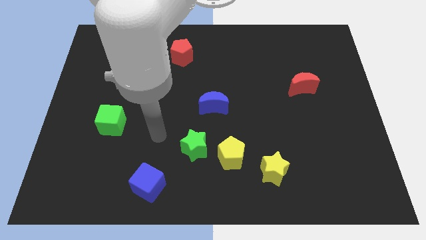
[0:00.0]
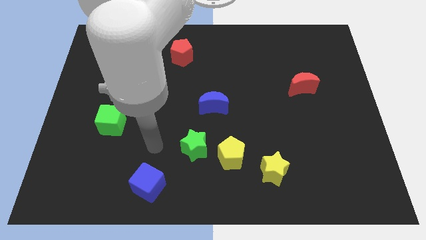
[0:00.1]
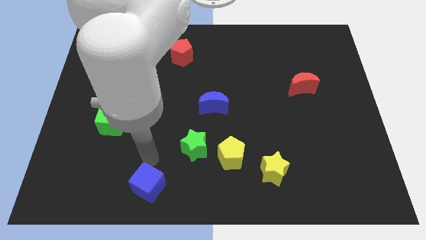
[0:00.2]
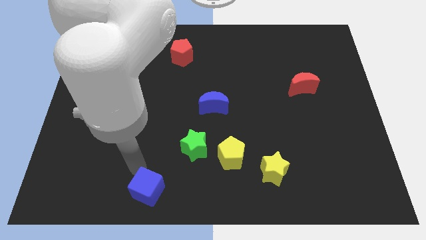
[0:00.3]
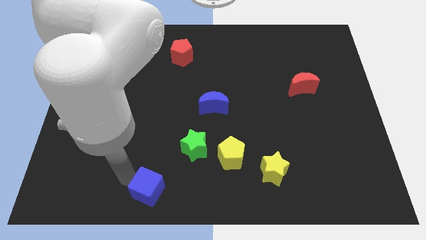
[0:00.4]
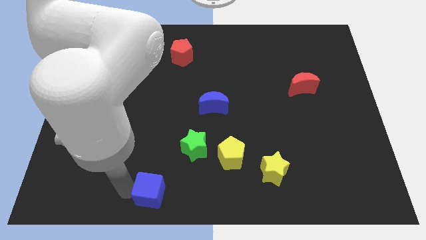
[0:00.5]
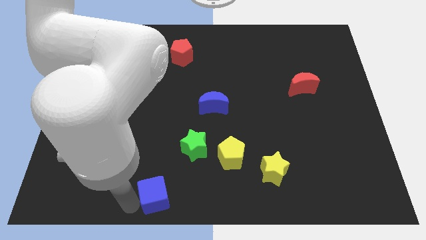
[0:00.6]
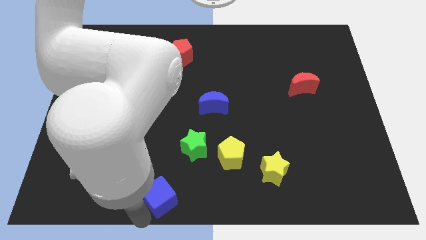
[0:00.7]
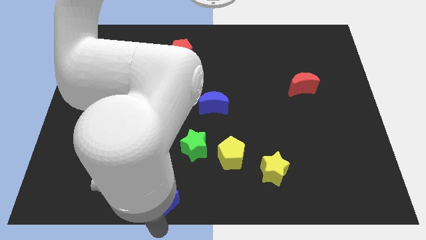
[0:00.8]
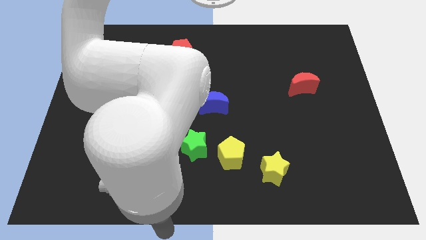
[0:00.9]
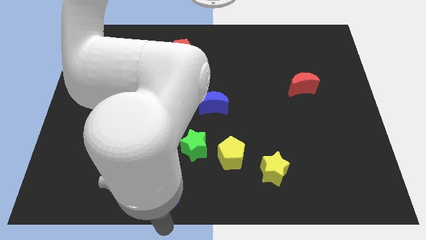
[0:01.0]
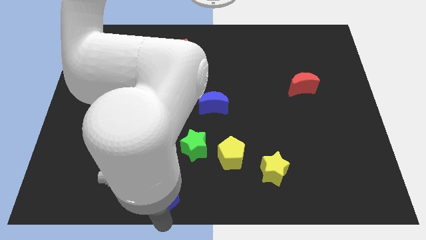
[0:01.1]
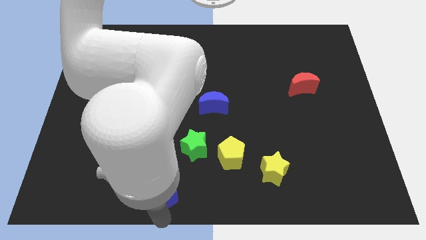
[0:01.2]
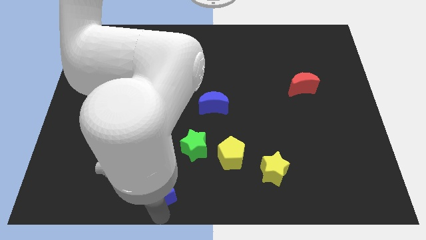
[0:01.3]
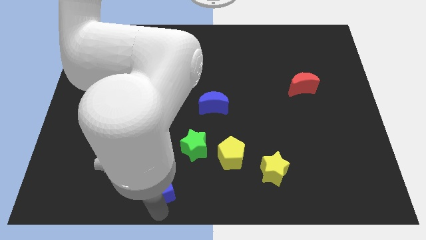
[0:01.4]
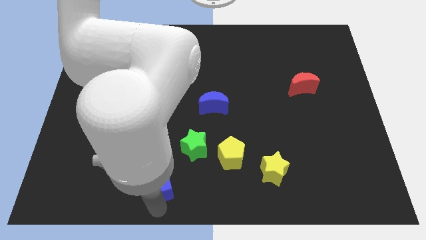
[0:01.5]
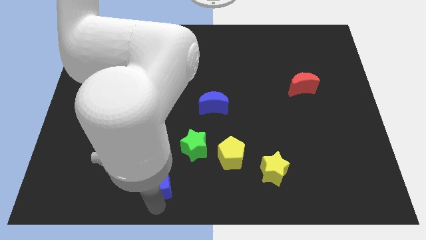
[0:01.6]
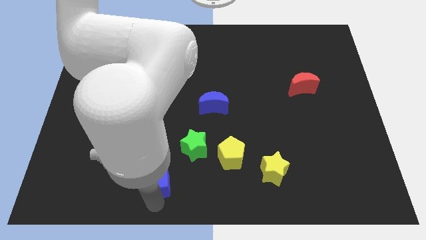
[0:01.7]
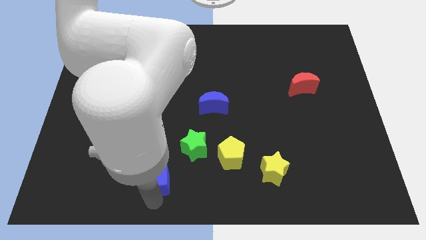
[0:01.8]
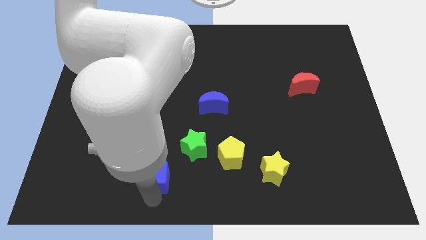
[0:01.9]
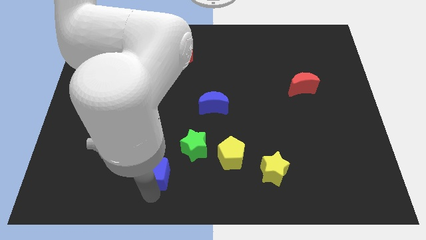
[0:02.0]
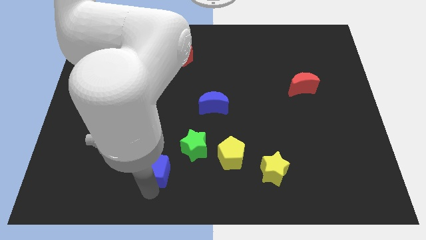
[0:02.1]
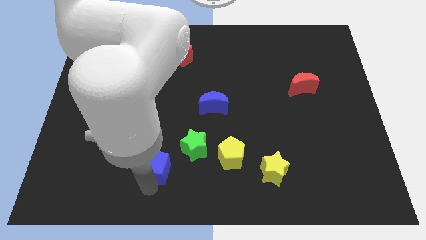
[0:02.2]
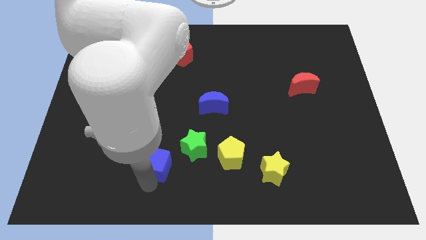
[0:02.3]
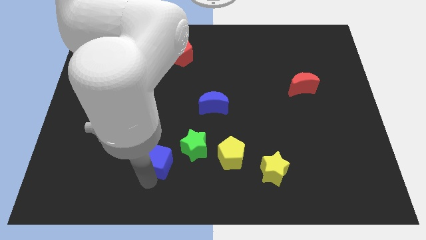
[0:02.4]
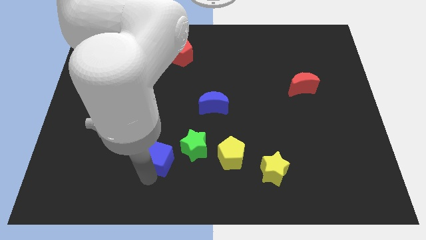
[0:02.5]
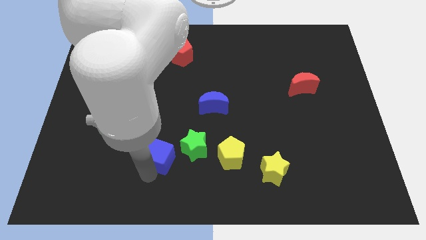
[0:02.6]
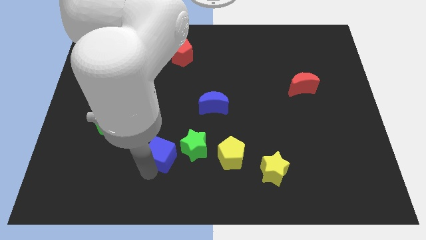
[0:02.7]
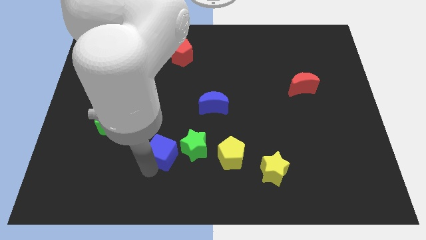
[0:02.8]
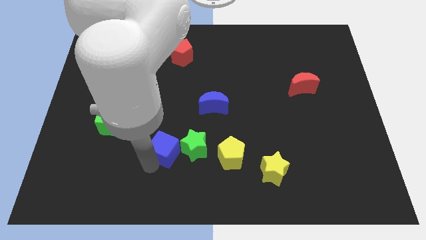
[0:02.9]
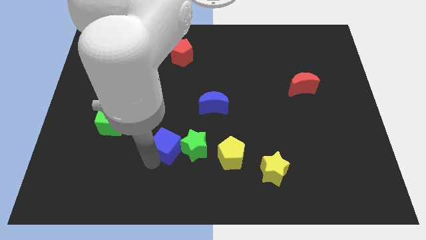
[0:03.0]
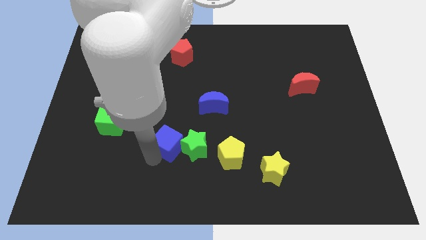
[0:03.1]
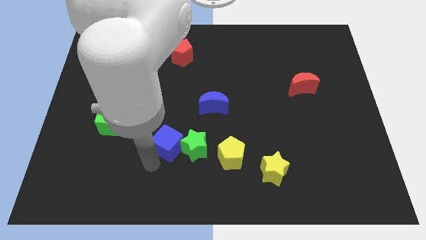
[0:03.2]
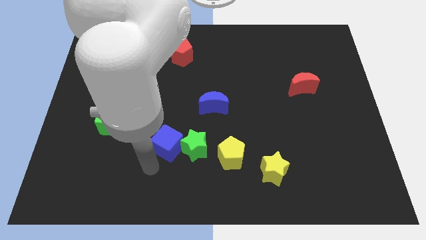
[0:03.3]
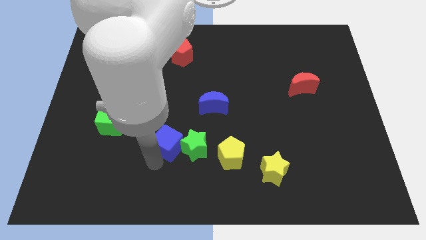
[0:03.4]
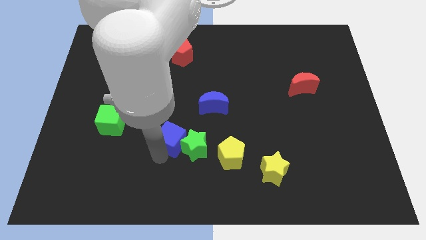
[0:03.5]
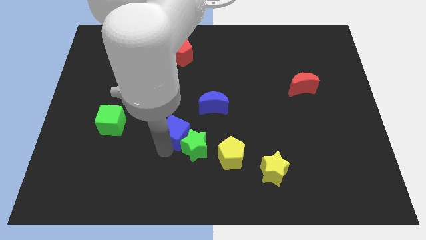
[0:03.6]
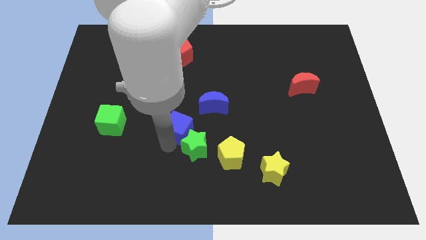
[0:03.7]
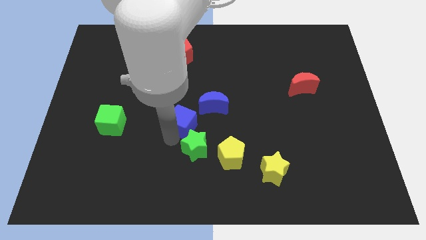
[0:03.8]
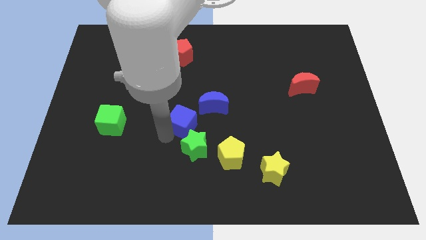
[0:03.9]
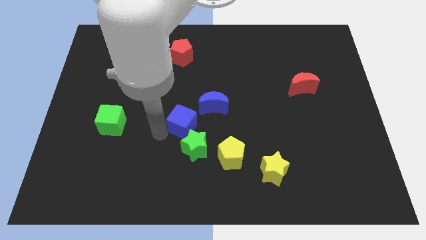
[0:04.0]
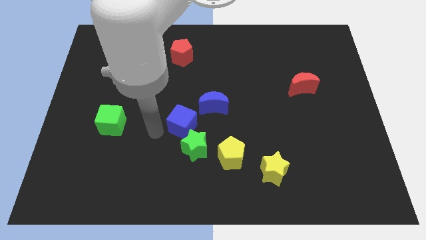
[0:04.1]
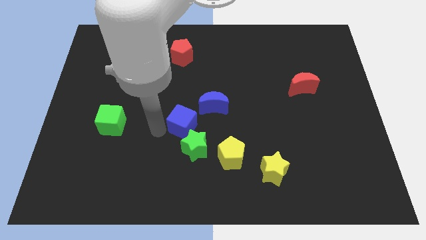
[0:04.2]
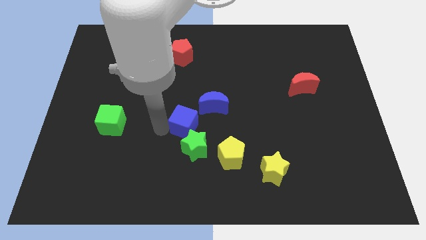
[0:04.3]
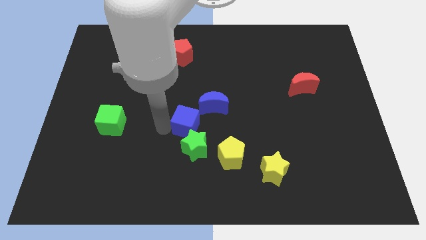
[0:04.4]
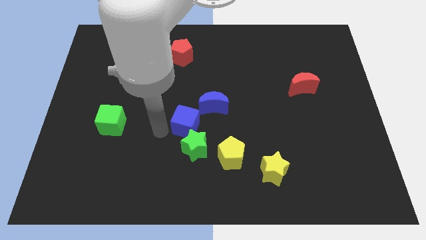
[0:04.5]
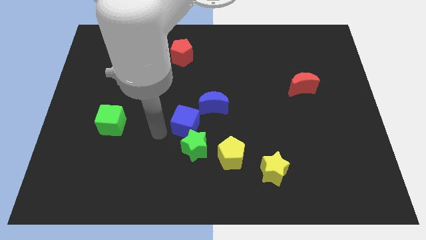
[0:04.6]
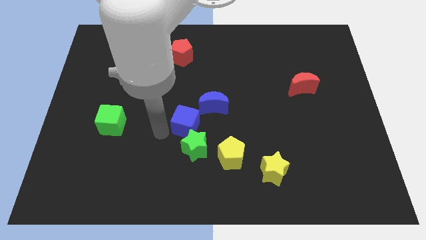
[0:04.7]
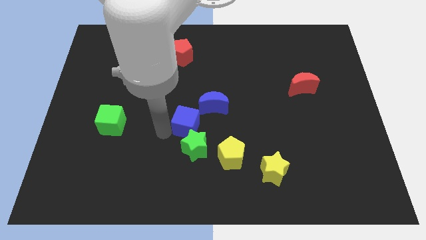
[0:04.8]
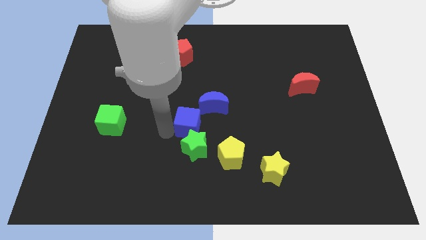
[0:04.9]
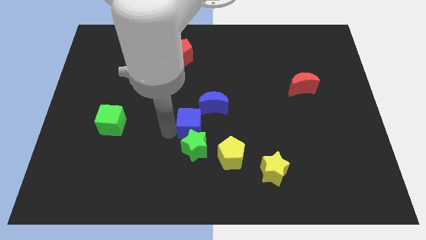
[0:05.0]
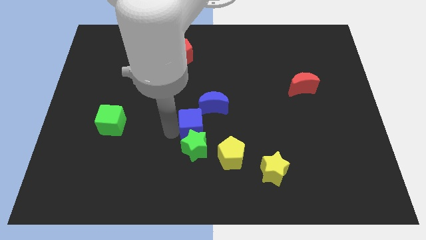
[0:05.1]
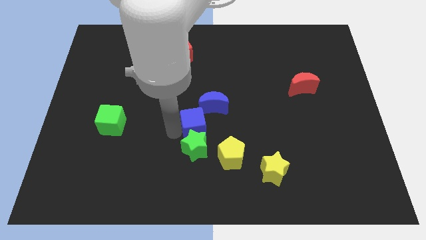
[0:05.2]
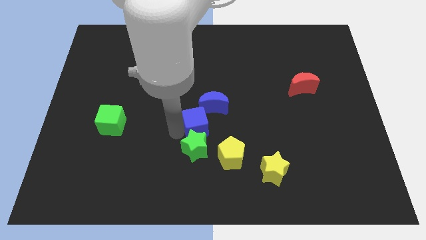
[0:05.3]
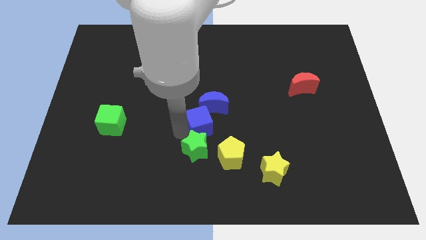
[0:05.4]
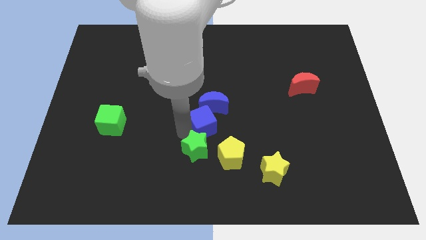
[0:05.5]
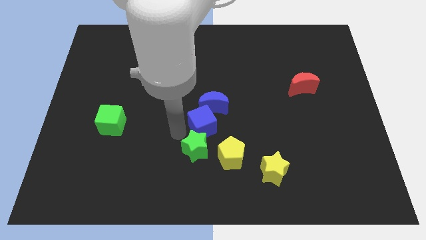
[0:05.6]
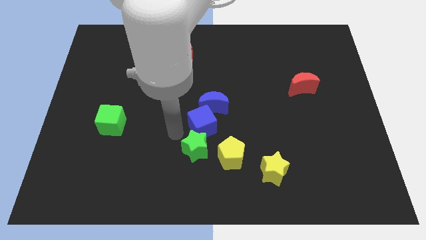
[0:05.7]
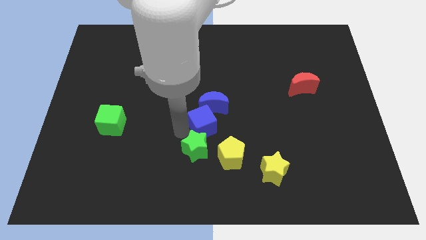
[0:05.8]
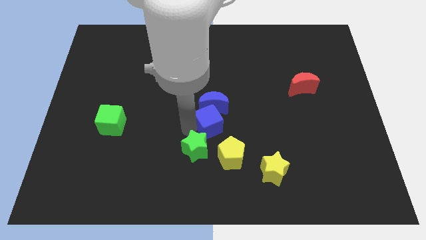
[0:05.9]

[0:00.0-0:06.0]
slide the blue cube to the top of the yellow pentagon

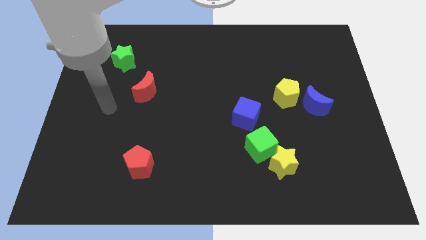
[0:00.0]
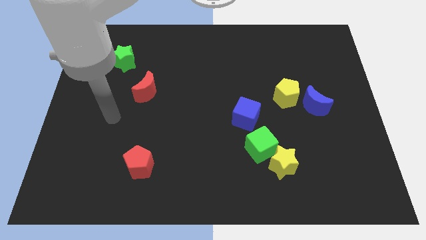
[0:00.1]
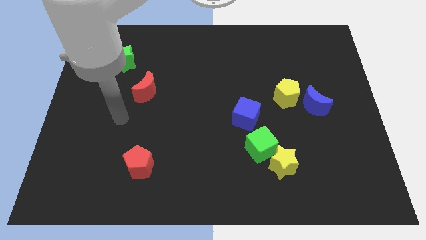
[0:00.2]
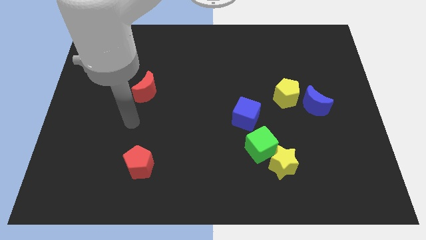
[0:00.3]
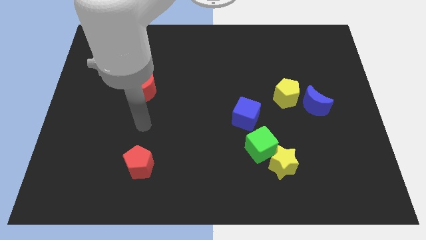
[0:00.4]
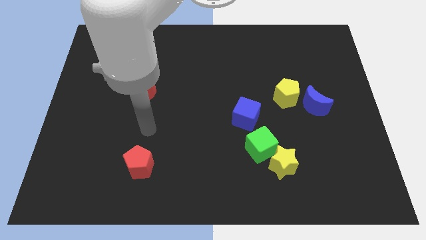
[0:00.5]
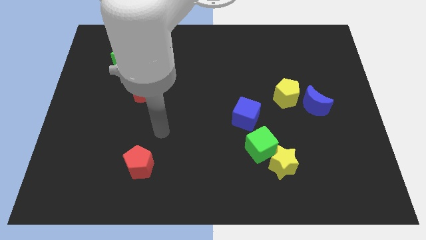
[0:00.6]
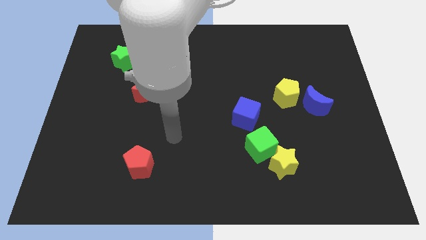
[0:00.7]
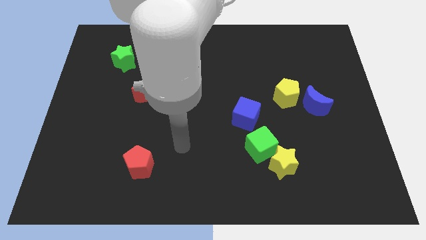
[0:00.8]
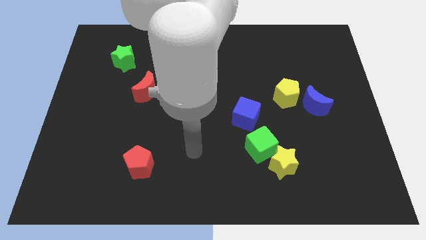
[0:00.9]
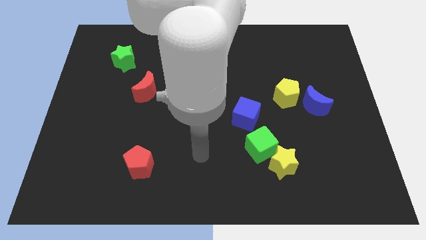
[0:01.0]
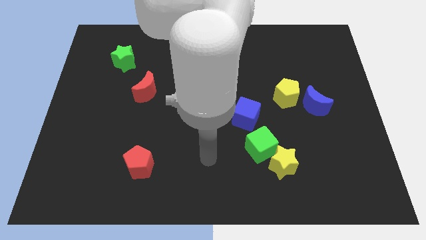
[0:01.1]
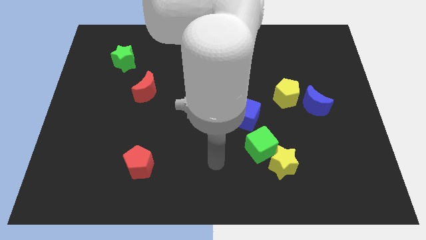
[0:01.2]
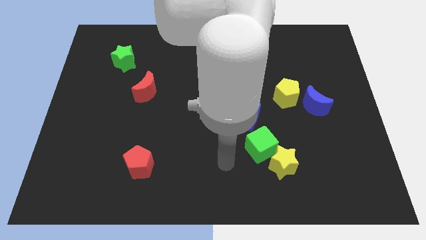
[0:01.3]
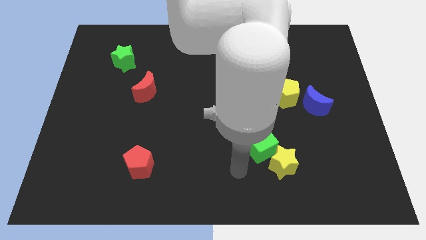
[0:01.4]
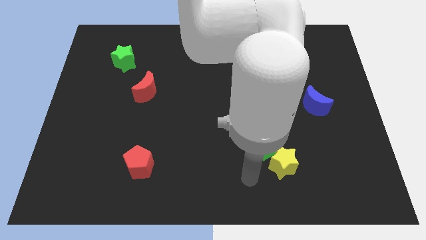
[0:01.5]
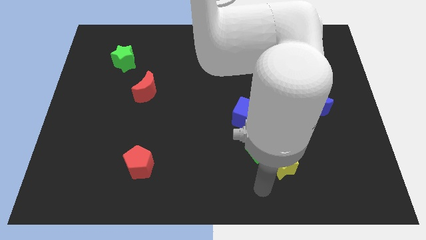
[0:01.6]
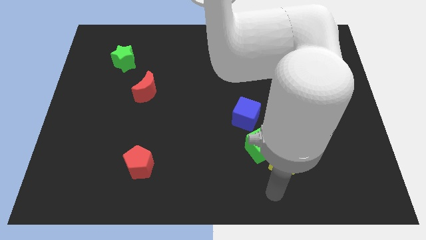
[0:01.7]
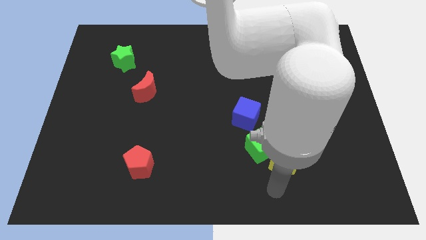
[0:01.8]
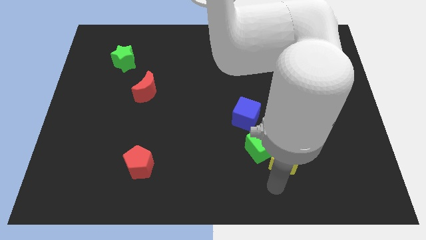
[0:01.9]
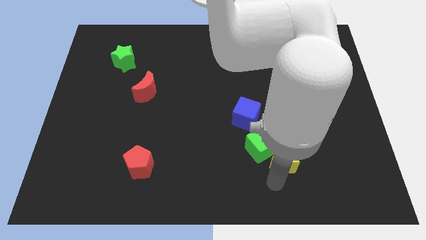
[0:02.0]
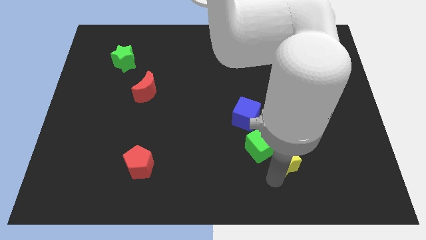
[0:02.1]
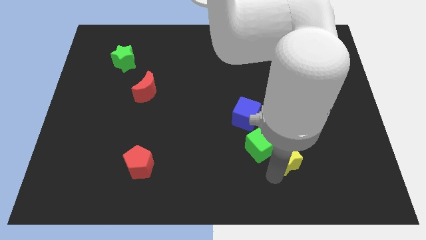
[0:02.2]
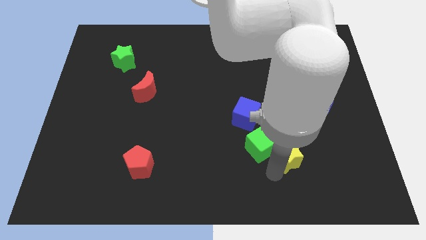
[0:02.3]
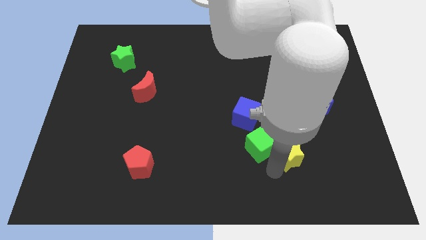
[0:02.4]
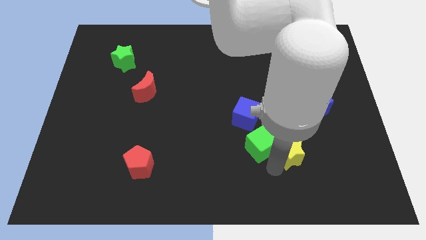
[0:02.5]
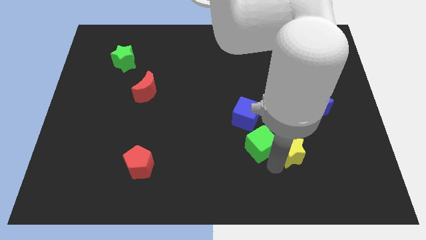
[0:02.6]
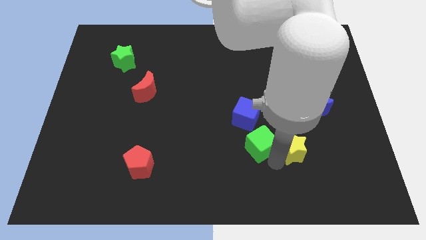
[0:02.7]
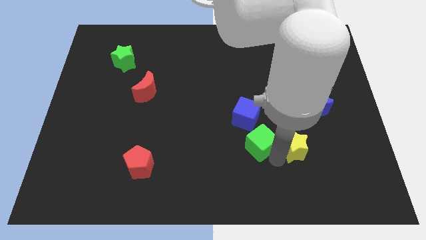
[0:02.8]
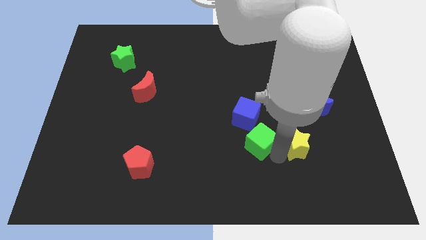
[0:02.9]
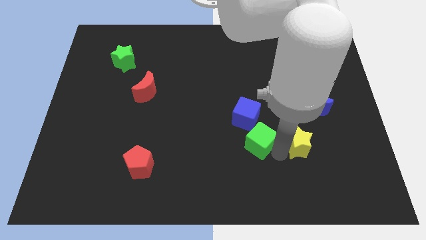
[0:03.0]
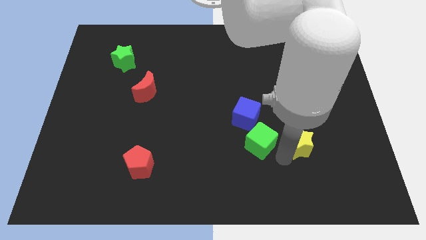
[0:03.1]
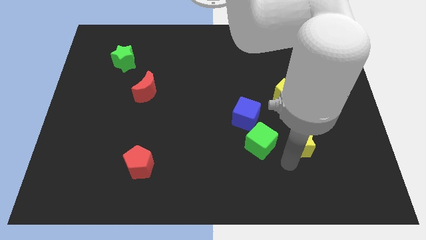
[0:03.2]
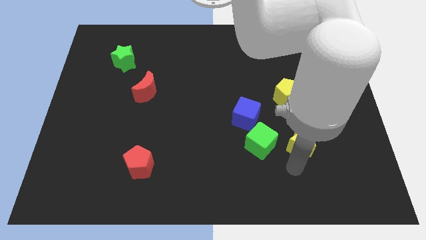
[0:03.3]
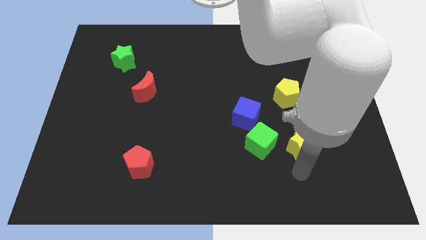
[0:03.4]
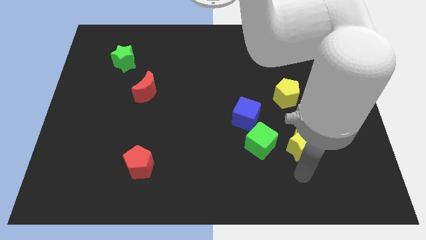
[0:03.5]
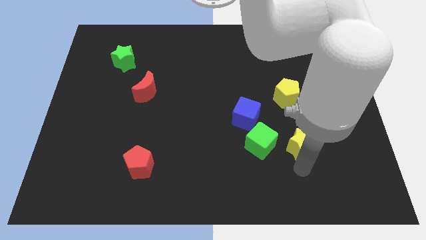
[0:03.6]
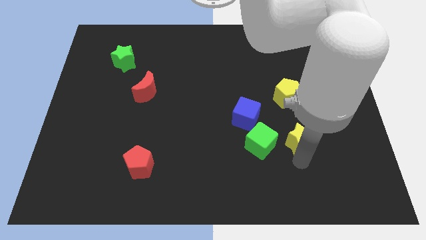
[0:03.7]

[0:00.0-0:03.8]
put the yellow star diagonally down and to the left of the blue moon
